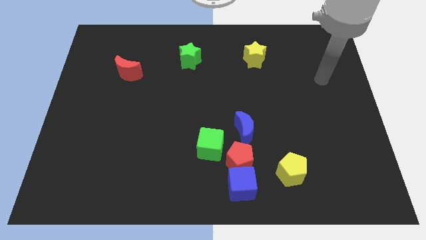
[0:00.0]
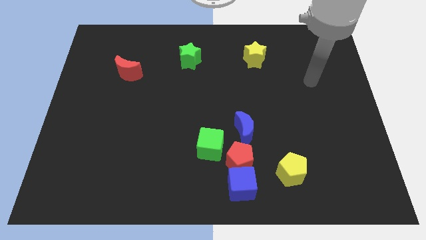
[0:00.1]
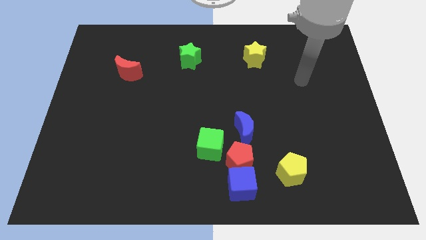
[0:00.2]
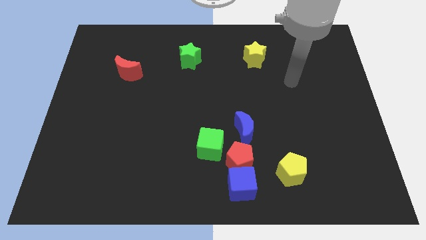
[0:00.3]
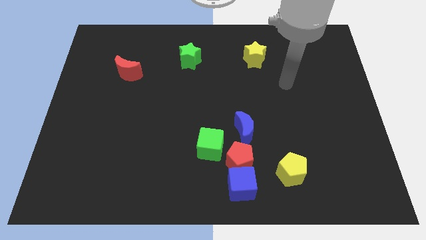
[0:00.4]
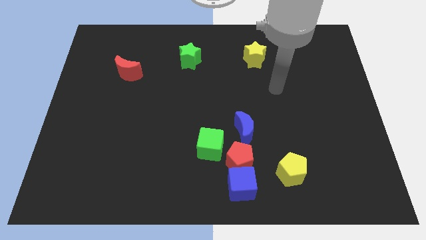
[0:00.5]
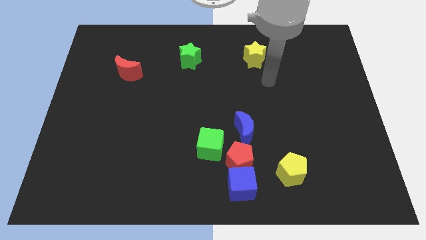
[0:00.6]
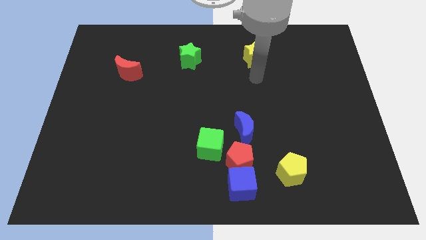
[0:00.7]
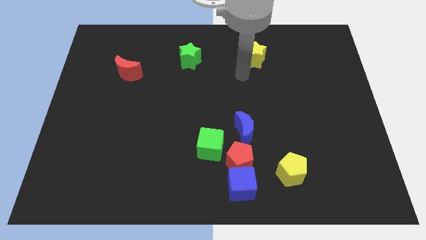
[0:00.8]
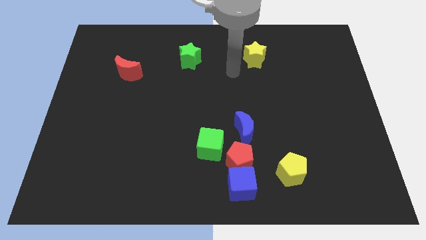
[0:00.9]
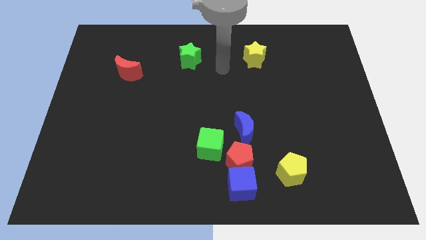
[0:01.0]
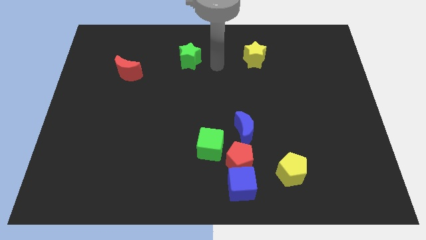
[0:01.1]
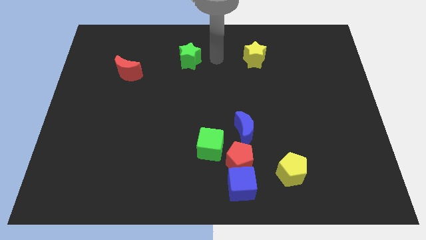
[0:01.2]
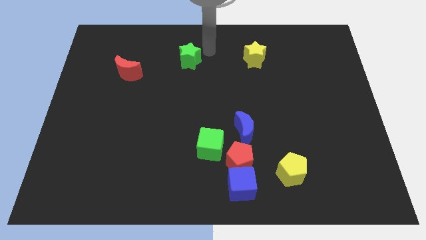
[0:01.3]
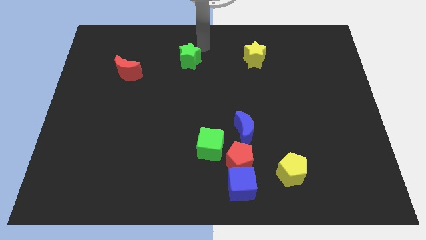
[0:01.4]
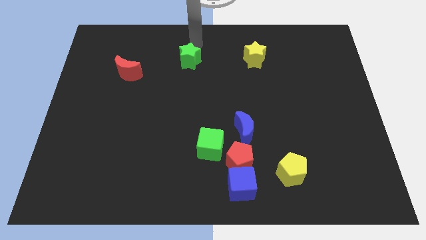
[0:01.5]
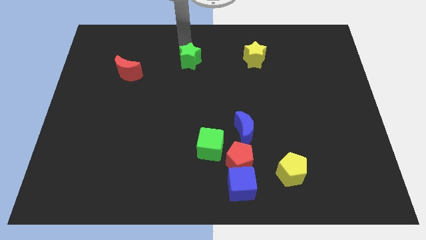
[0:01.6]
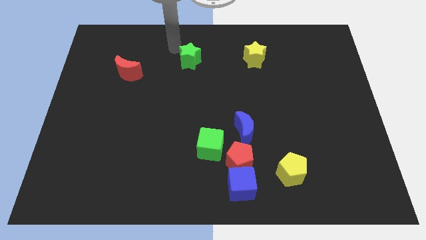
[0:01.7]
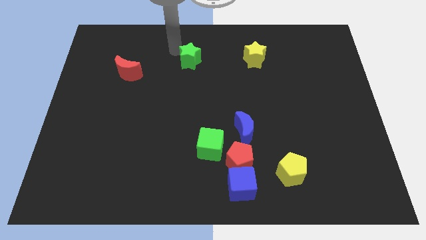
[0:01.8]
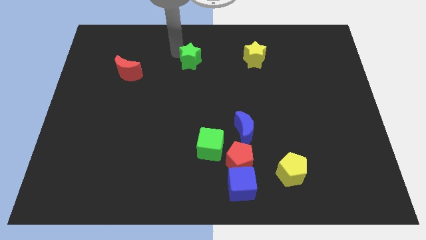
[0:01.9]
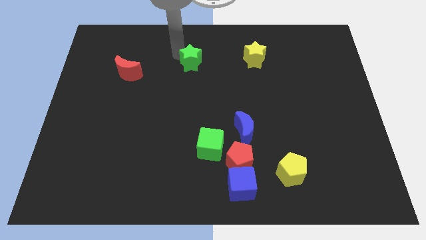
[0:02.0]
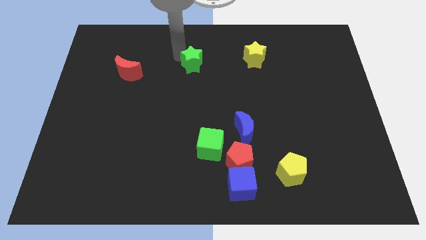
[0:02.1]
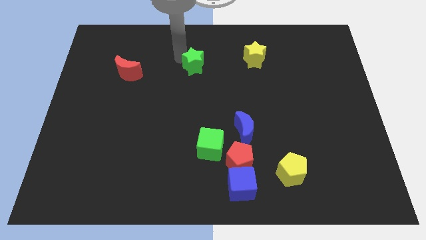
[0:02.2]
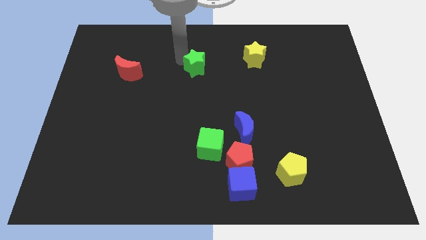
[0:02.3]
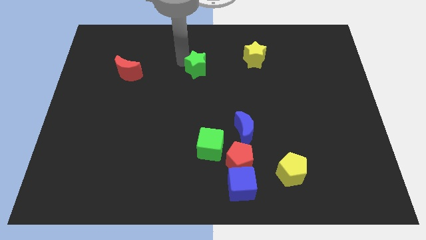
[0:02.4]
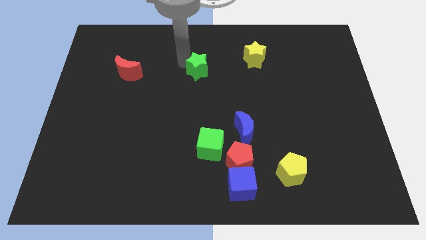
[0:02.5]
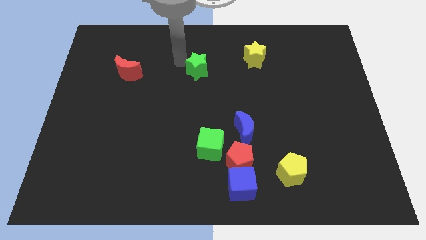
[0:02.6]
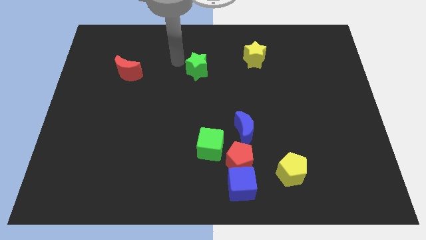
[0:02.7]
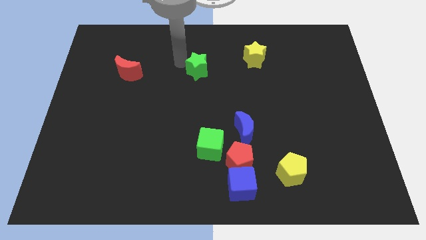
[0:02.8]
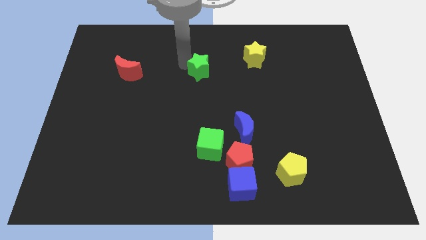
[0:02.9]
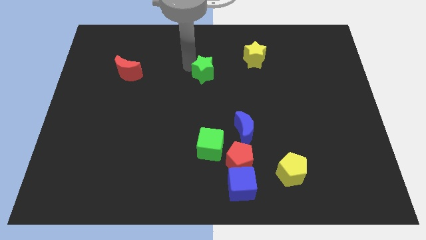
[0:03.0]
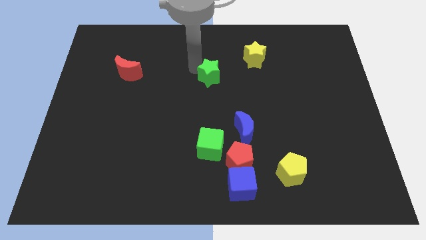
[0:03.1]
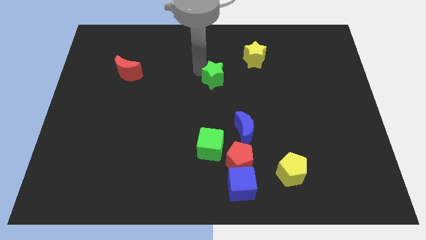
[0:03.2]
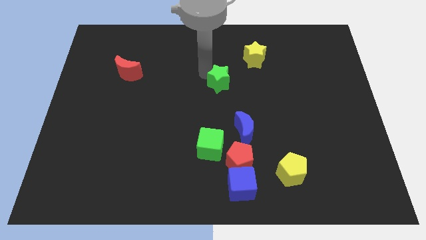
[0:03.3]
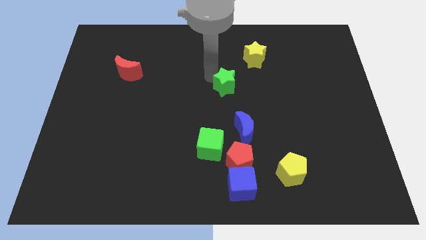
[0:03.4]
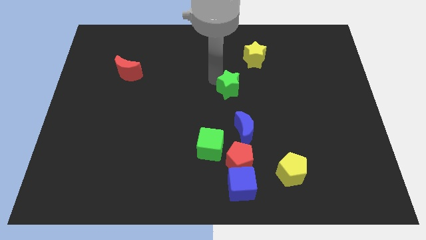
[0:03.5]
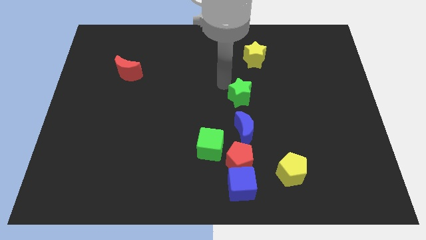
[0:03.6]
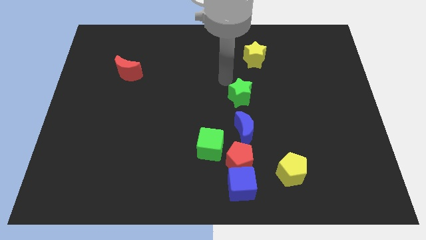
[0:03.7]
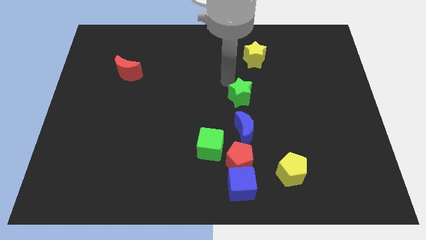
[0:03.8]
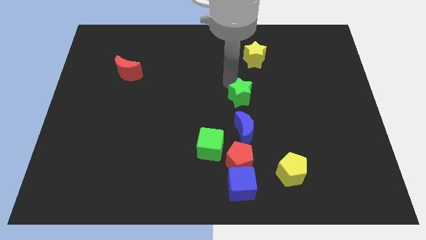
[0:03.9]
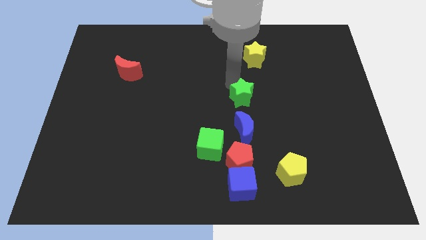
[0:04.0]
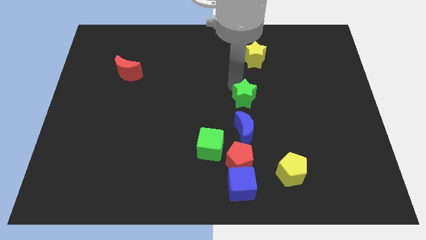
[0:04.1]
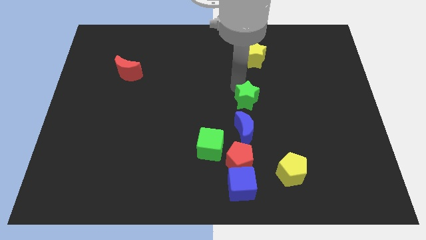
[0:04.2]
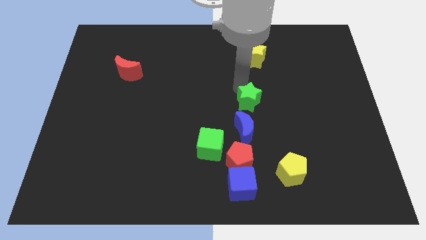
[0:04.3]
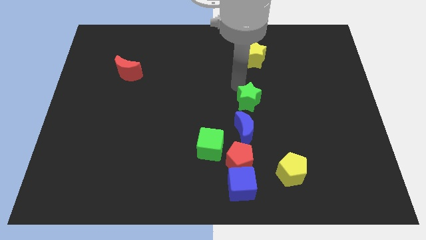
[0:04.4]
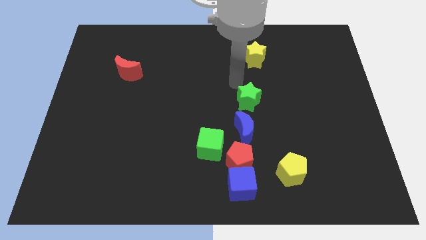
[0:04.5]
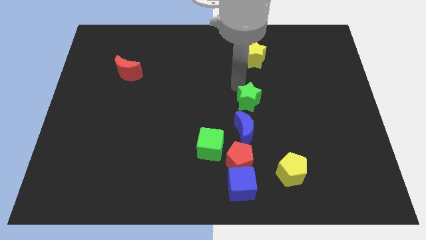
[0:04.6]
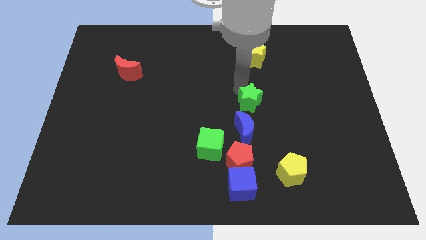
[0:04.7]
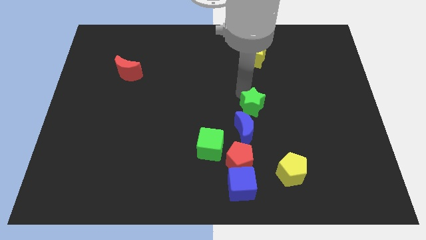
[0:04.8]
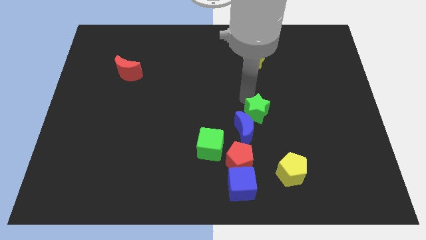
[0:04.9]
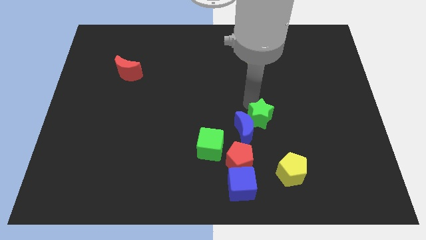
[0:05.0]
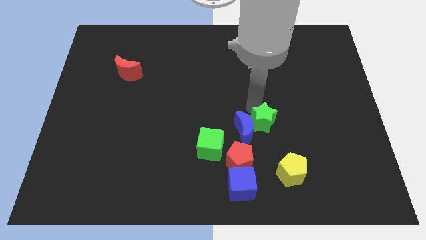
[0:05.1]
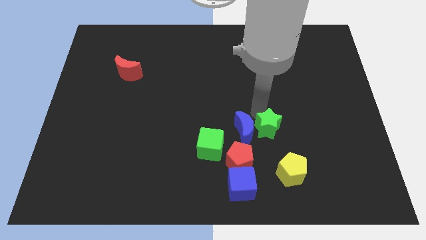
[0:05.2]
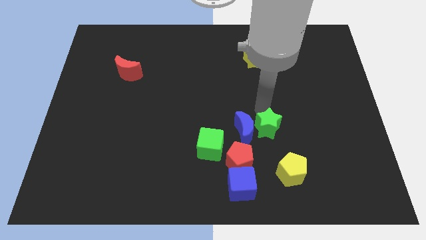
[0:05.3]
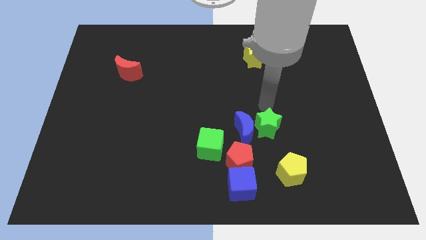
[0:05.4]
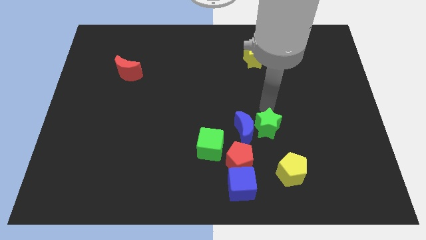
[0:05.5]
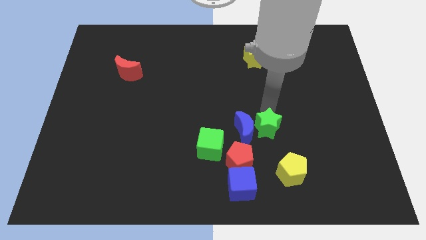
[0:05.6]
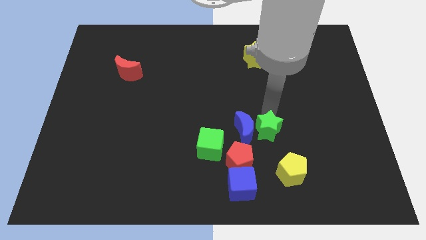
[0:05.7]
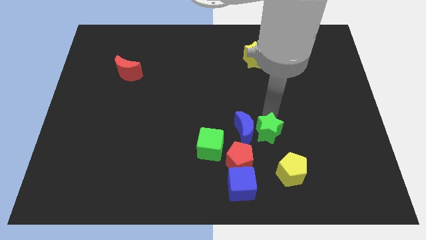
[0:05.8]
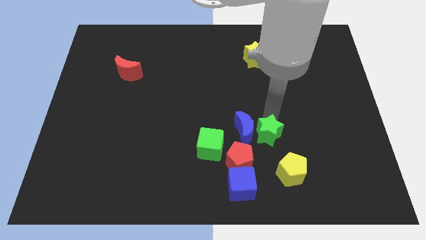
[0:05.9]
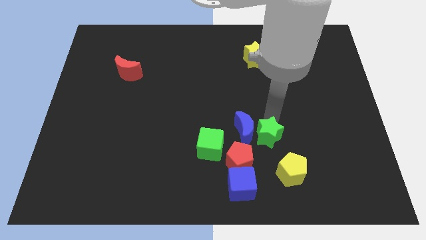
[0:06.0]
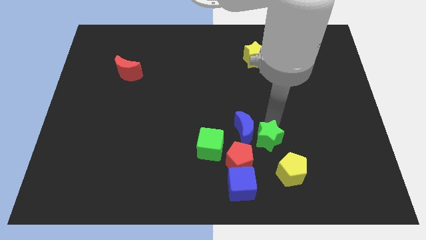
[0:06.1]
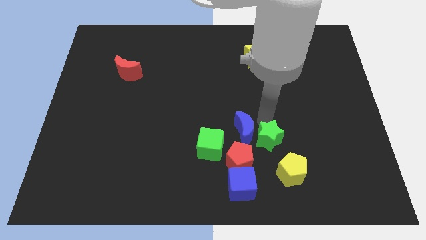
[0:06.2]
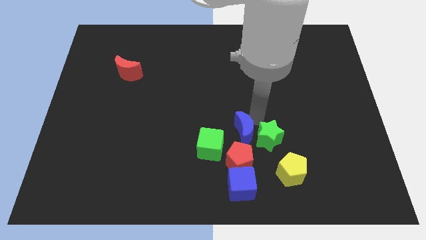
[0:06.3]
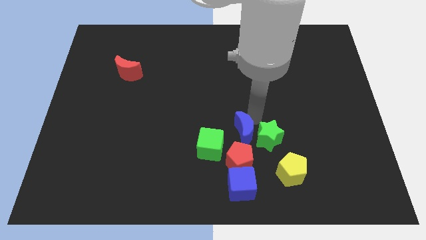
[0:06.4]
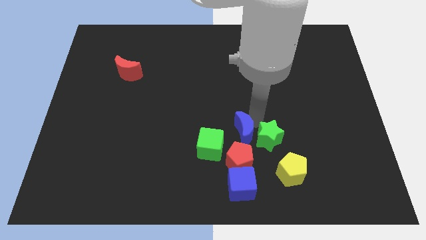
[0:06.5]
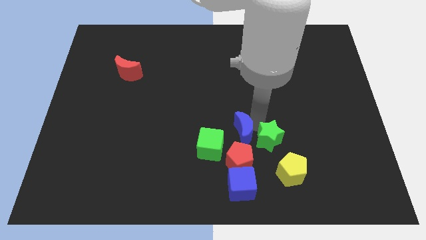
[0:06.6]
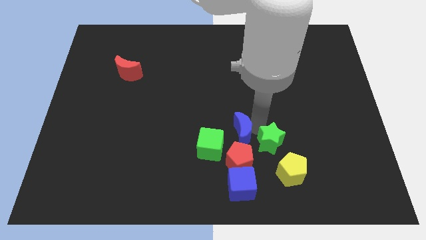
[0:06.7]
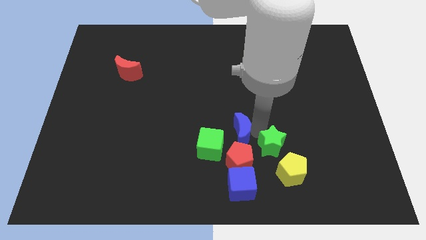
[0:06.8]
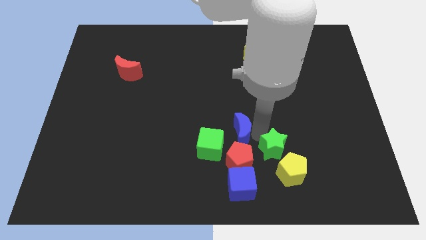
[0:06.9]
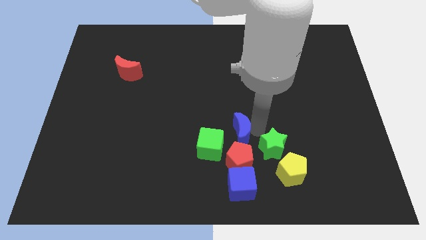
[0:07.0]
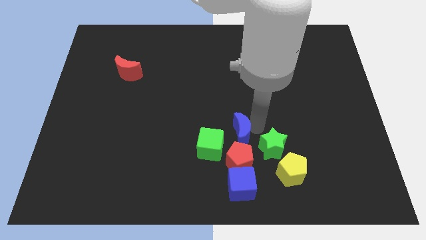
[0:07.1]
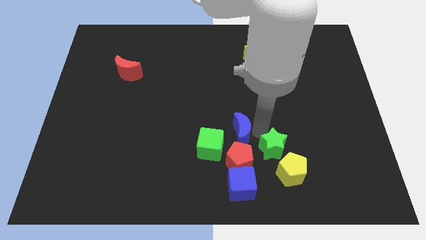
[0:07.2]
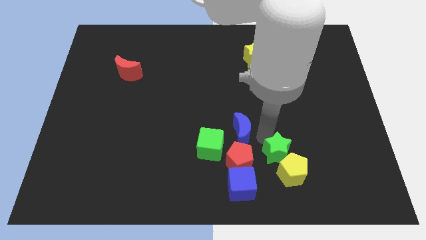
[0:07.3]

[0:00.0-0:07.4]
put the green star to the yellow pentagon
